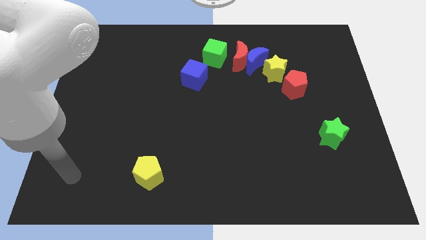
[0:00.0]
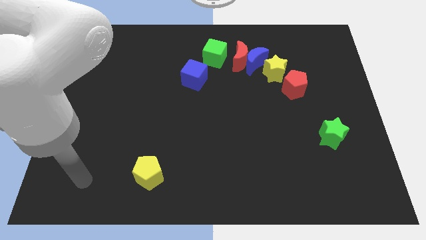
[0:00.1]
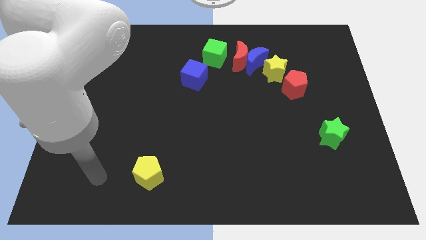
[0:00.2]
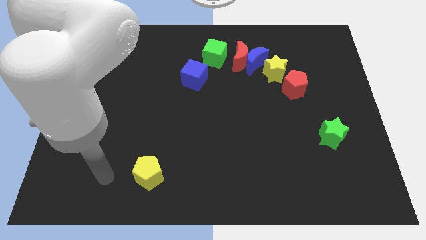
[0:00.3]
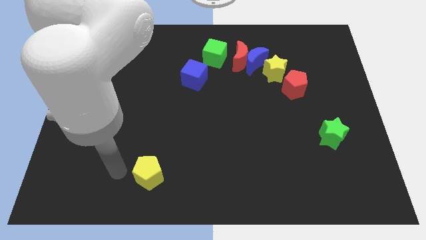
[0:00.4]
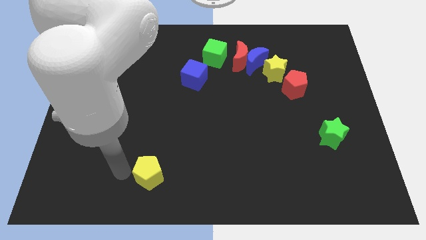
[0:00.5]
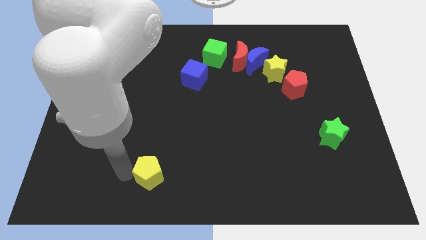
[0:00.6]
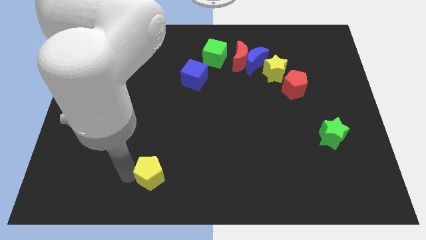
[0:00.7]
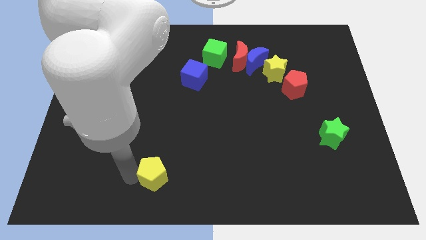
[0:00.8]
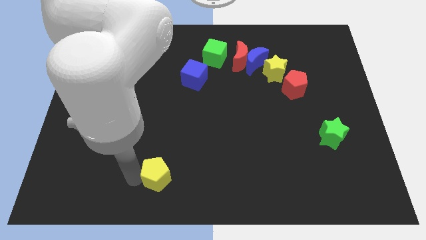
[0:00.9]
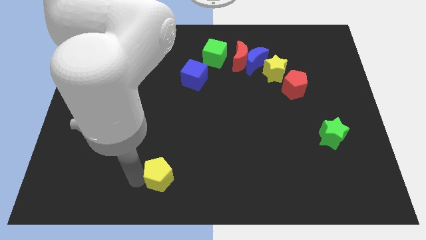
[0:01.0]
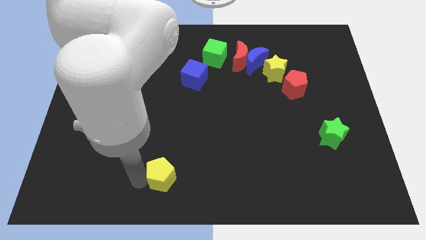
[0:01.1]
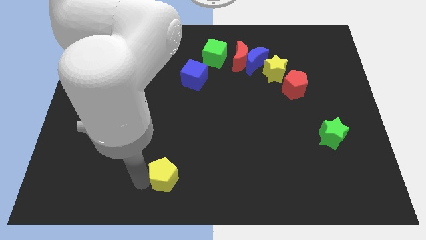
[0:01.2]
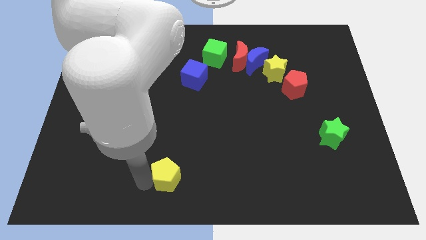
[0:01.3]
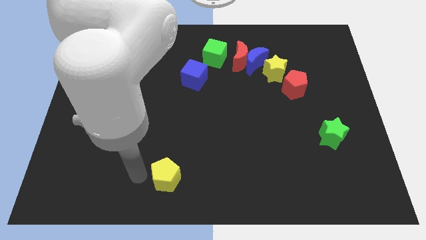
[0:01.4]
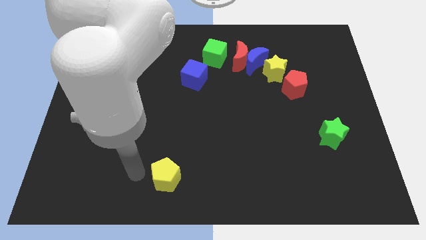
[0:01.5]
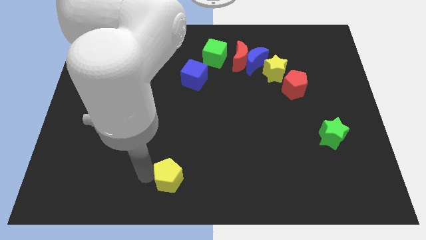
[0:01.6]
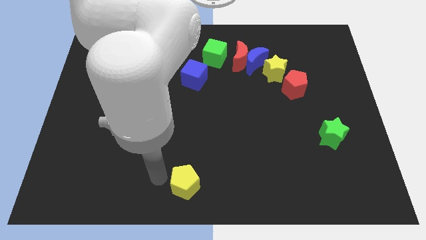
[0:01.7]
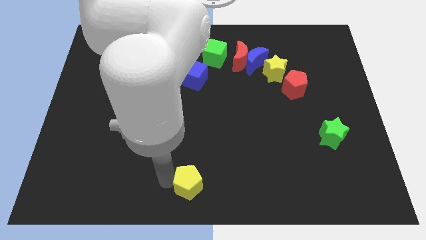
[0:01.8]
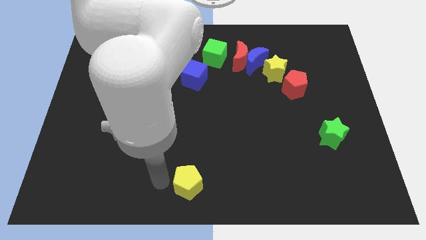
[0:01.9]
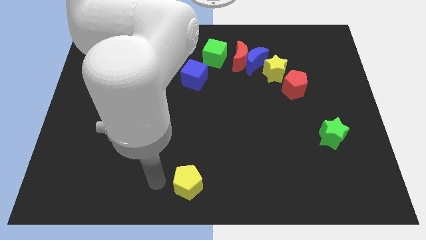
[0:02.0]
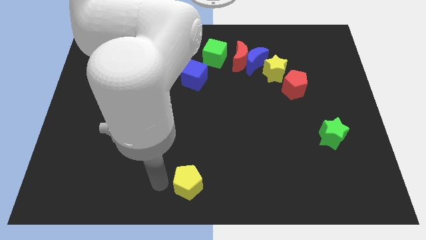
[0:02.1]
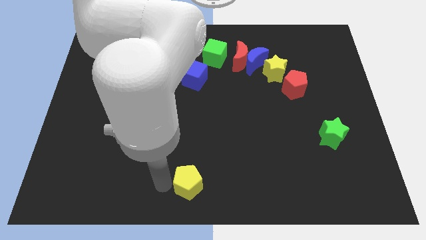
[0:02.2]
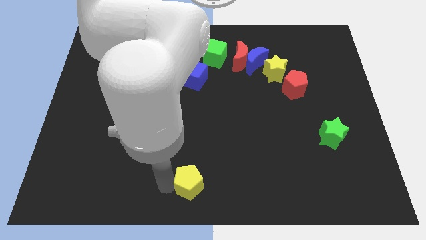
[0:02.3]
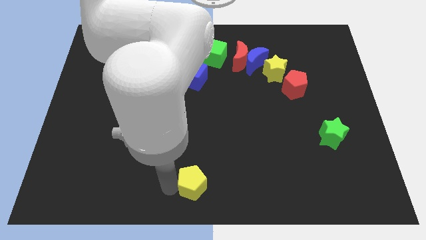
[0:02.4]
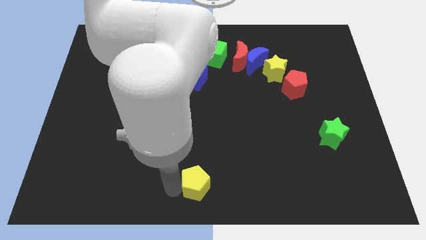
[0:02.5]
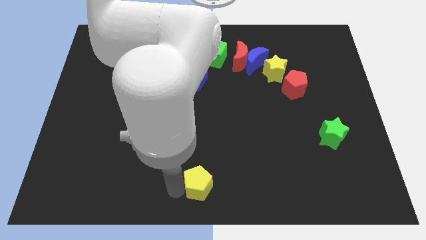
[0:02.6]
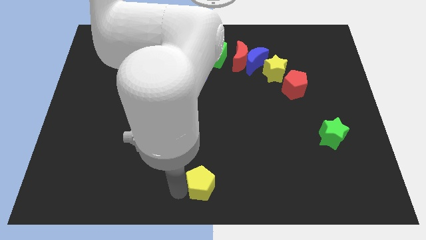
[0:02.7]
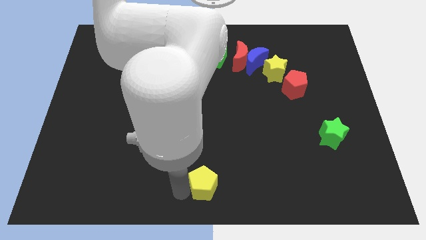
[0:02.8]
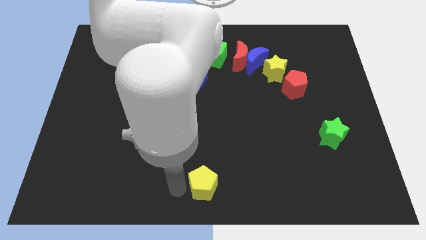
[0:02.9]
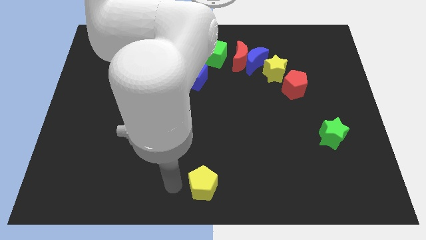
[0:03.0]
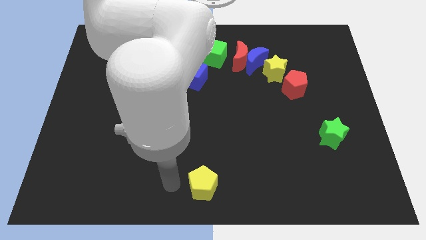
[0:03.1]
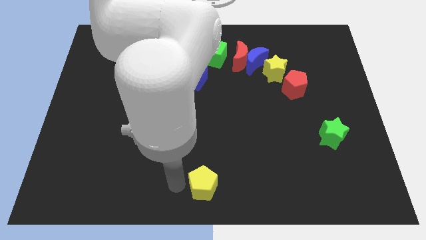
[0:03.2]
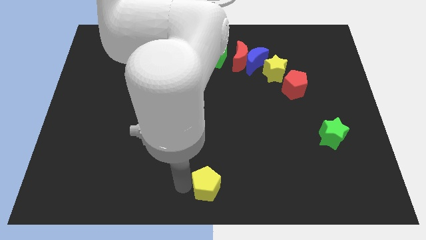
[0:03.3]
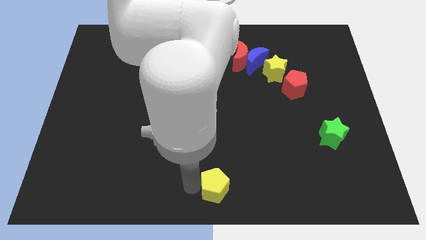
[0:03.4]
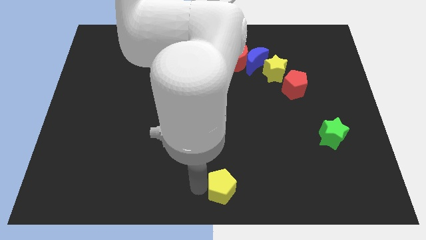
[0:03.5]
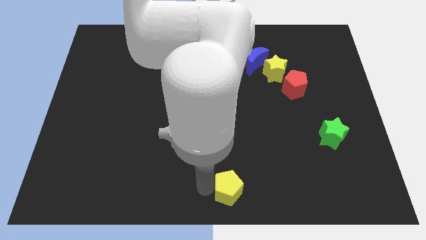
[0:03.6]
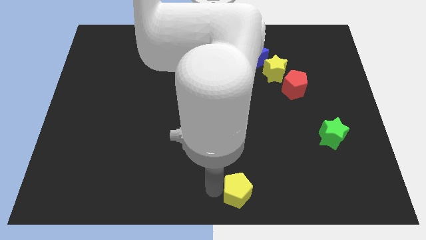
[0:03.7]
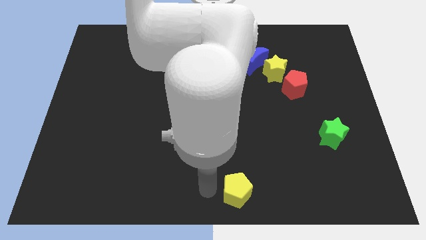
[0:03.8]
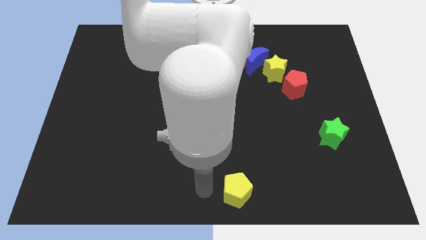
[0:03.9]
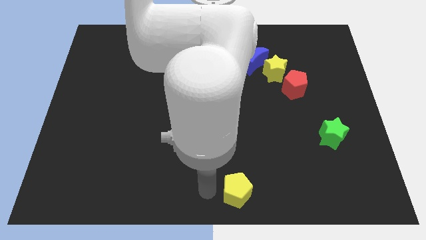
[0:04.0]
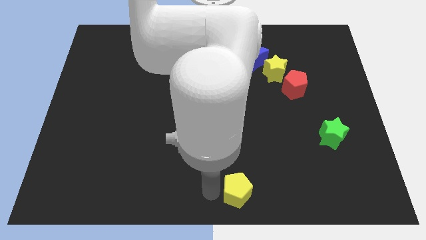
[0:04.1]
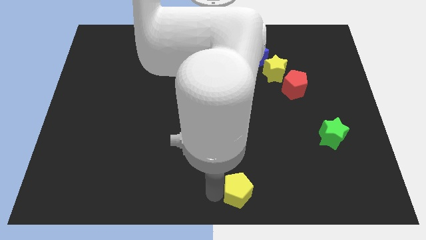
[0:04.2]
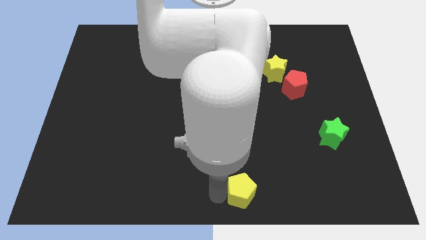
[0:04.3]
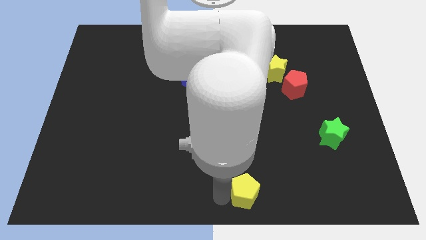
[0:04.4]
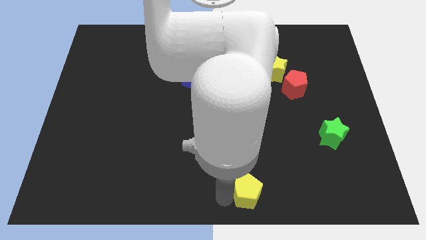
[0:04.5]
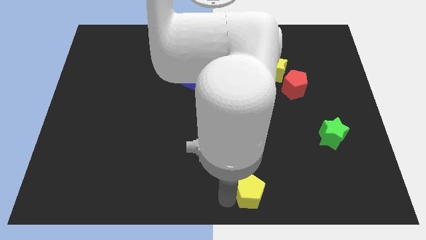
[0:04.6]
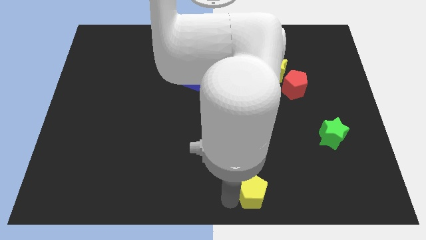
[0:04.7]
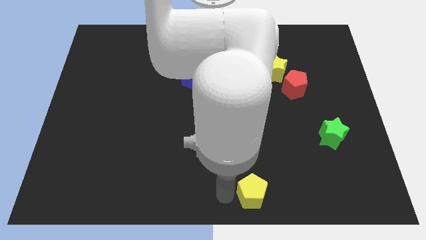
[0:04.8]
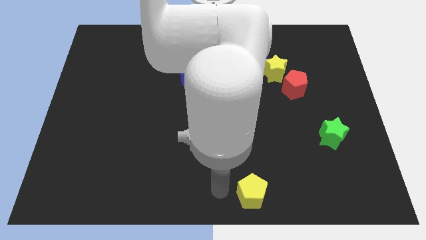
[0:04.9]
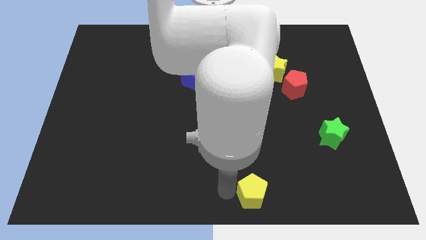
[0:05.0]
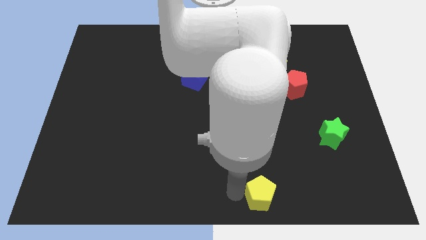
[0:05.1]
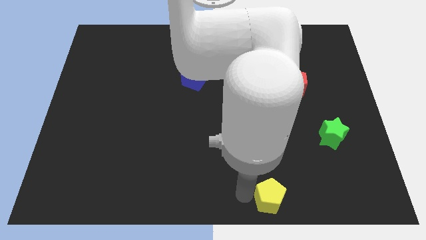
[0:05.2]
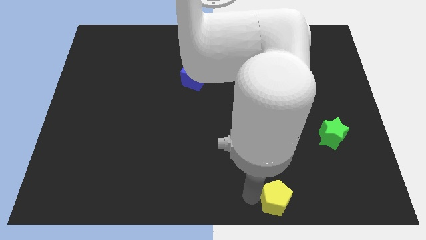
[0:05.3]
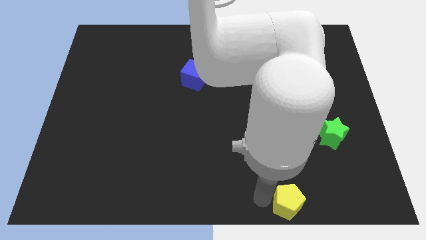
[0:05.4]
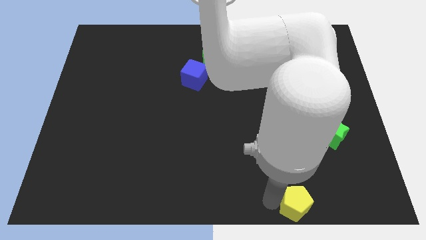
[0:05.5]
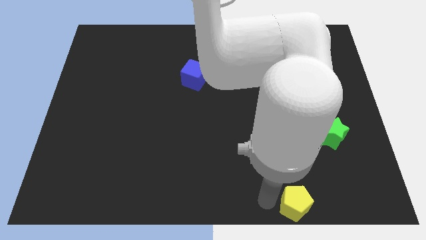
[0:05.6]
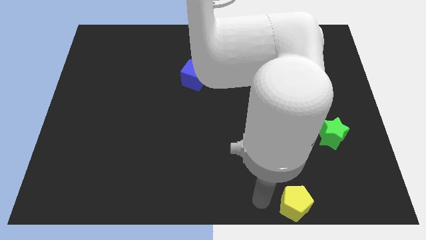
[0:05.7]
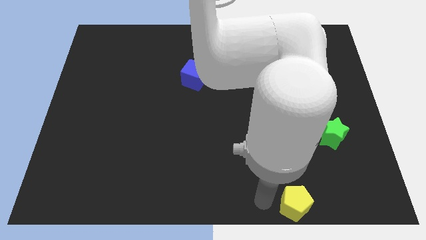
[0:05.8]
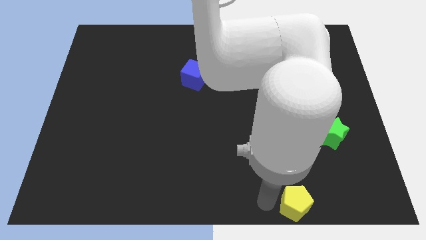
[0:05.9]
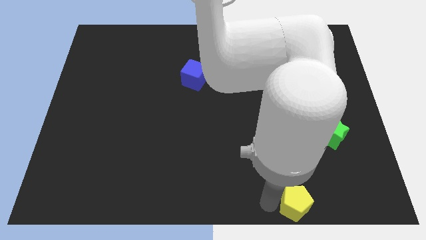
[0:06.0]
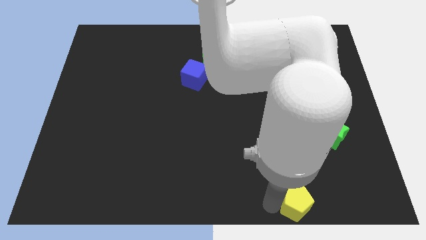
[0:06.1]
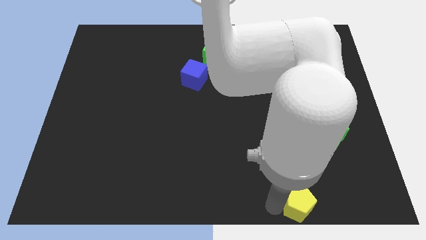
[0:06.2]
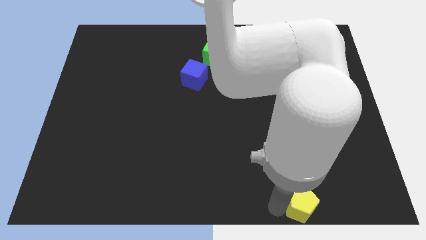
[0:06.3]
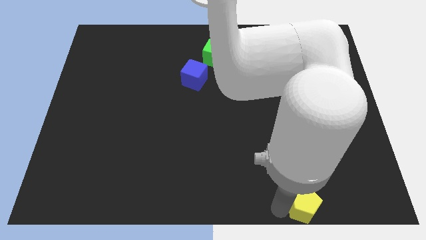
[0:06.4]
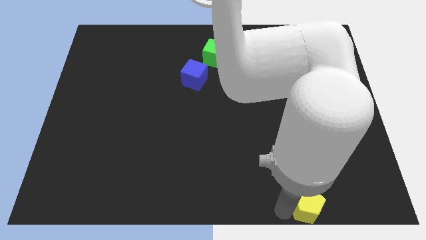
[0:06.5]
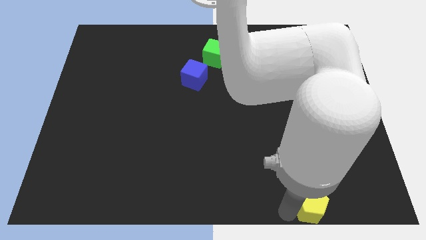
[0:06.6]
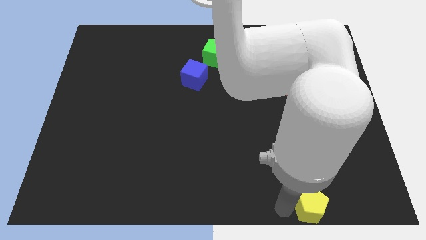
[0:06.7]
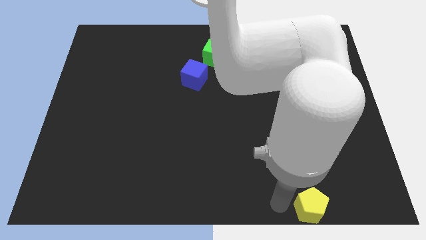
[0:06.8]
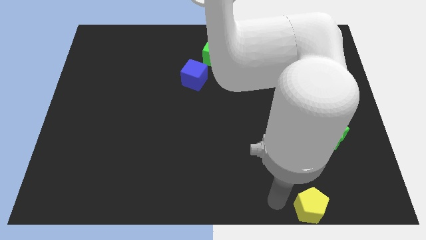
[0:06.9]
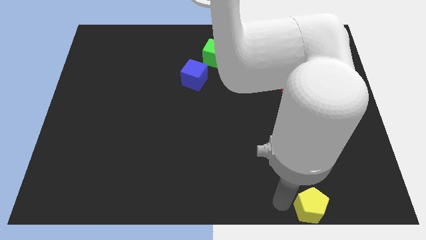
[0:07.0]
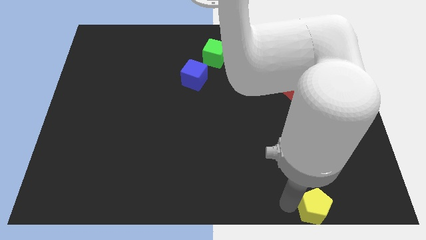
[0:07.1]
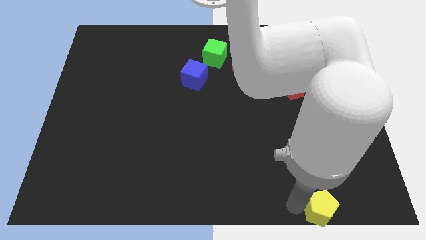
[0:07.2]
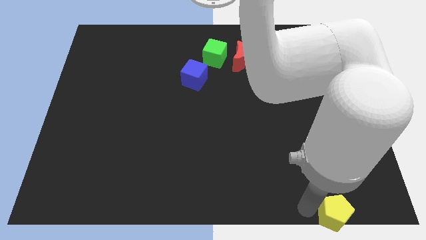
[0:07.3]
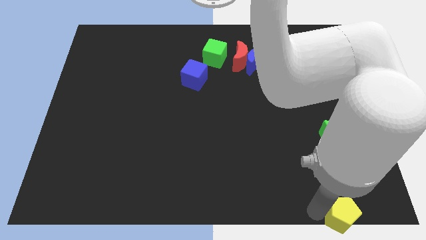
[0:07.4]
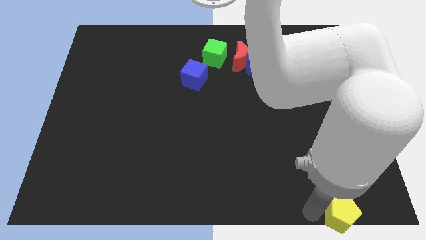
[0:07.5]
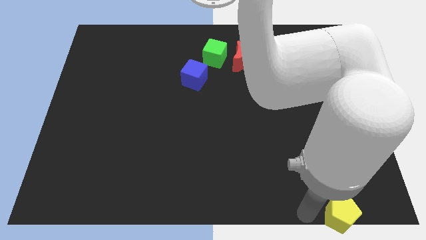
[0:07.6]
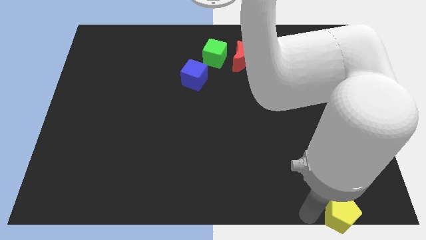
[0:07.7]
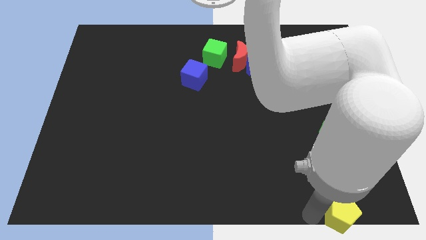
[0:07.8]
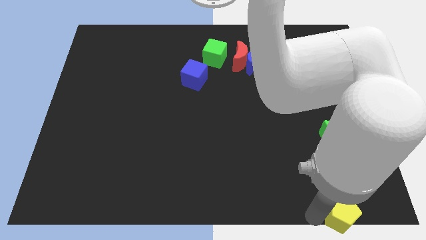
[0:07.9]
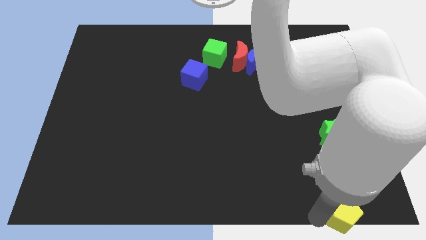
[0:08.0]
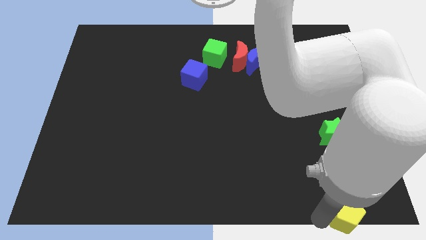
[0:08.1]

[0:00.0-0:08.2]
slide the yellow pentagon to the lower right corner
